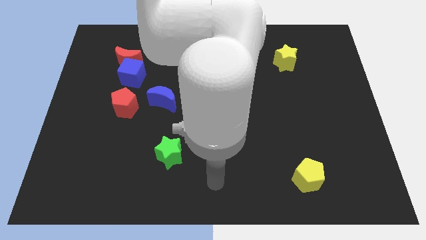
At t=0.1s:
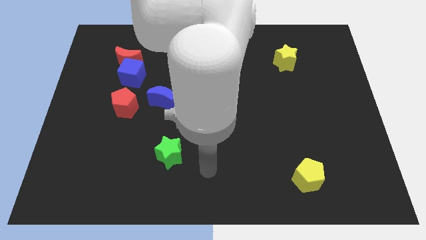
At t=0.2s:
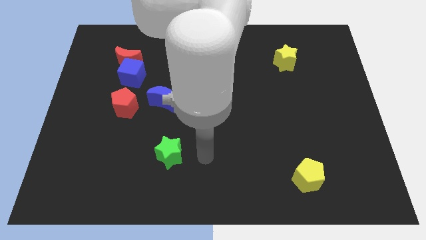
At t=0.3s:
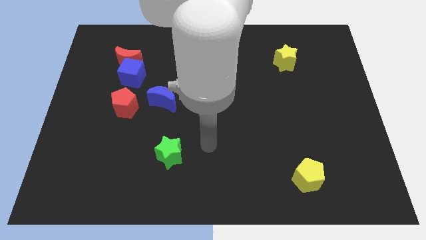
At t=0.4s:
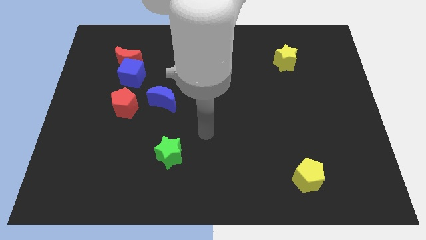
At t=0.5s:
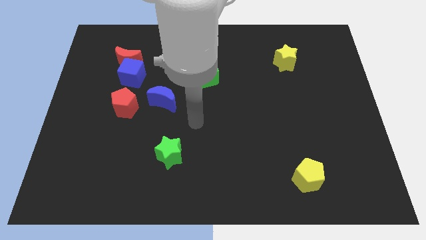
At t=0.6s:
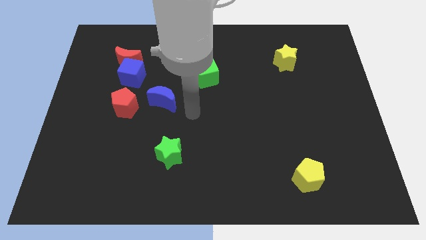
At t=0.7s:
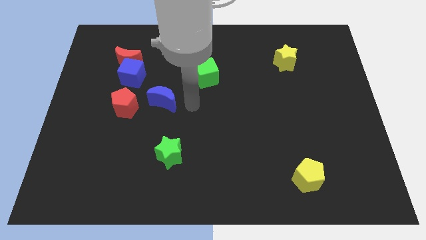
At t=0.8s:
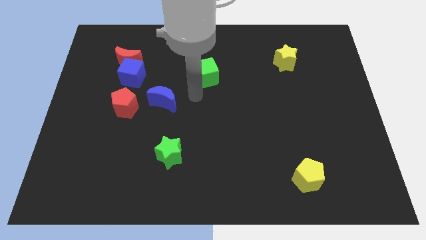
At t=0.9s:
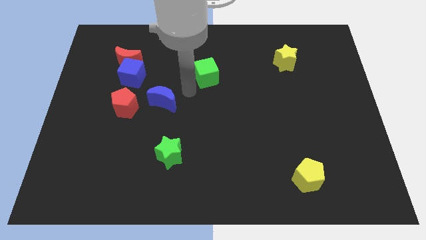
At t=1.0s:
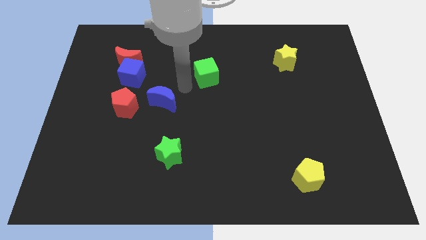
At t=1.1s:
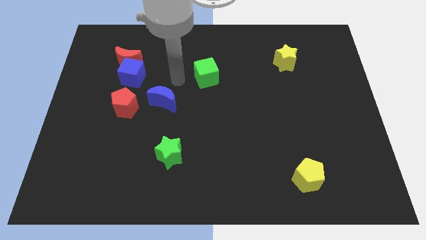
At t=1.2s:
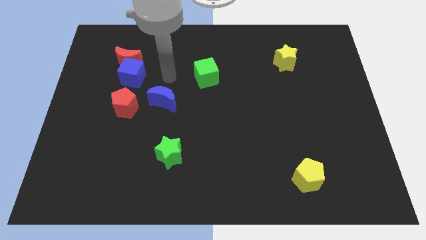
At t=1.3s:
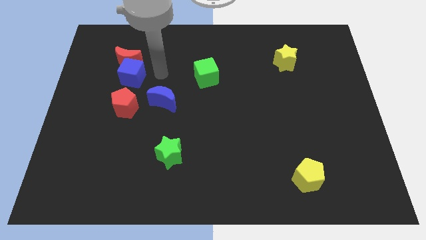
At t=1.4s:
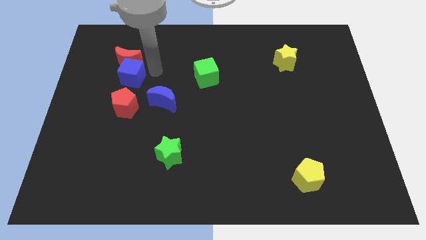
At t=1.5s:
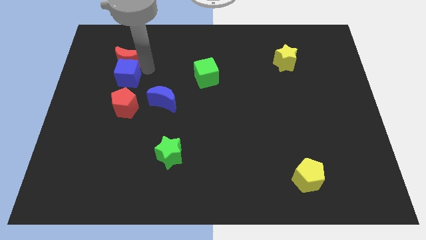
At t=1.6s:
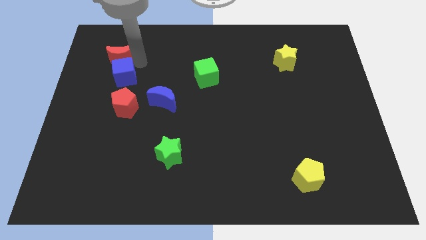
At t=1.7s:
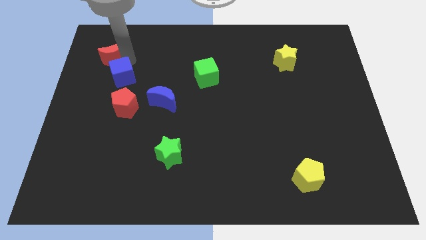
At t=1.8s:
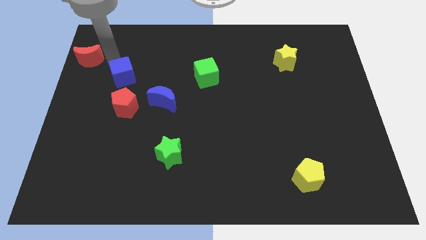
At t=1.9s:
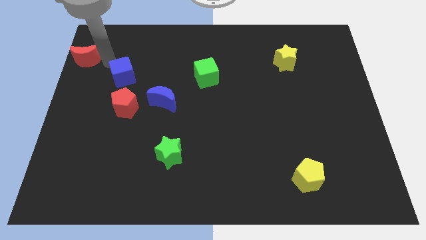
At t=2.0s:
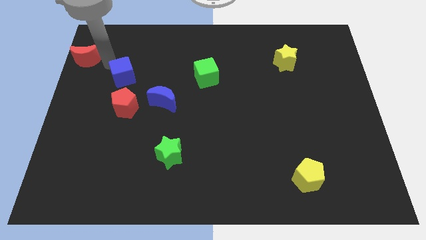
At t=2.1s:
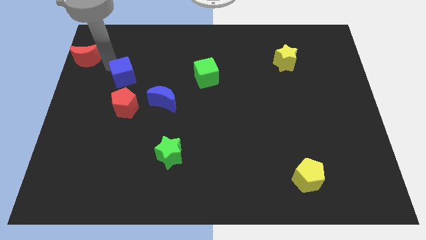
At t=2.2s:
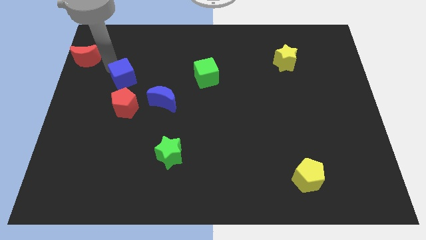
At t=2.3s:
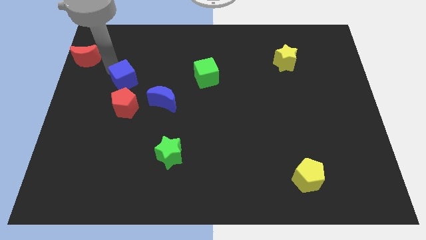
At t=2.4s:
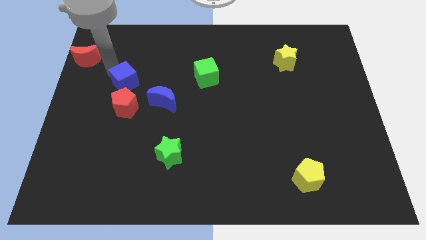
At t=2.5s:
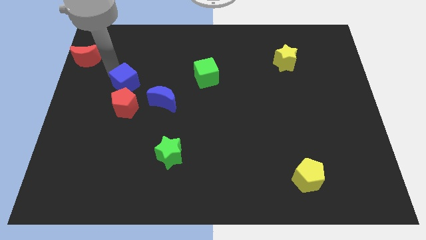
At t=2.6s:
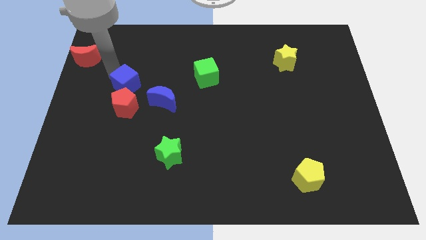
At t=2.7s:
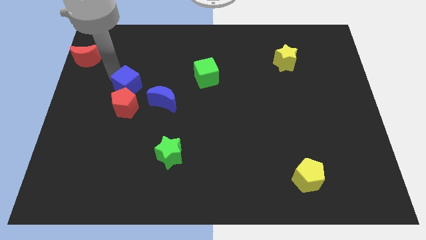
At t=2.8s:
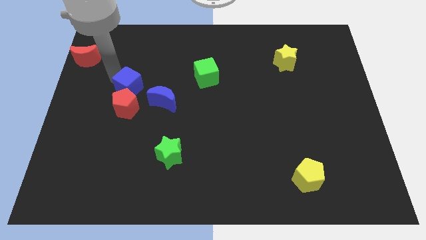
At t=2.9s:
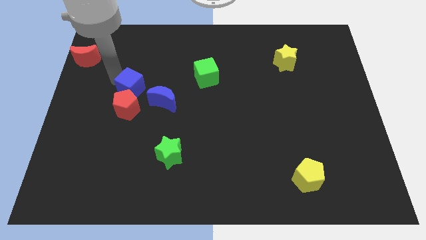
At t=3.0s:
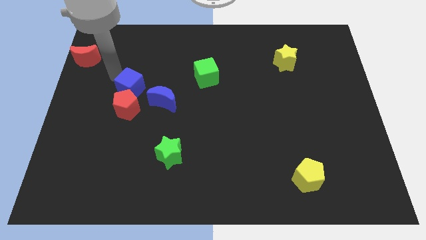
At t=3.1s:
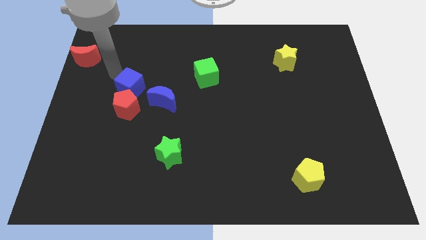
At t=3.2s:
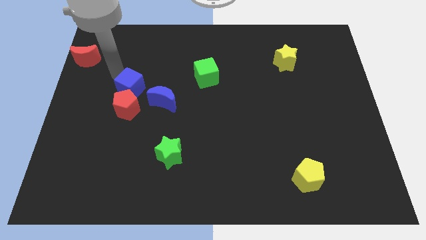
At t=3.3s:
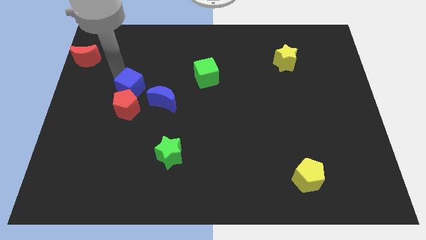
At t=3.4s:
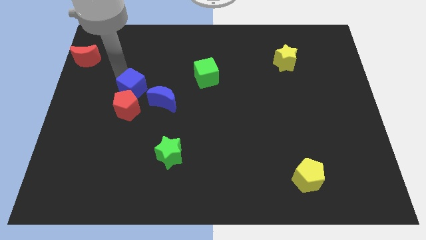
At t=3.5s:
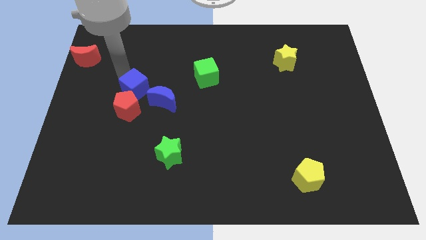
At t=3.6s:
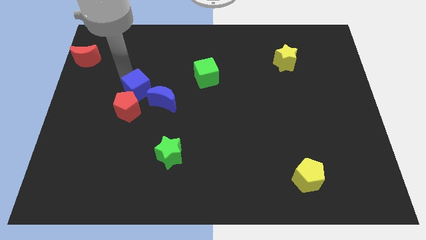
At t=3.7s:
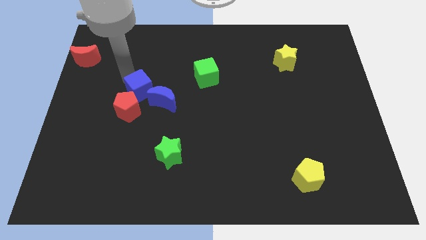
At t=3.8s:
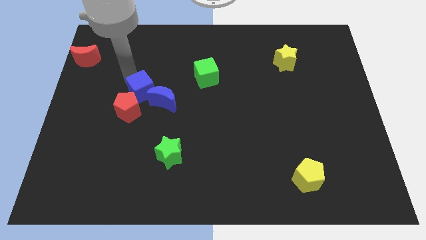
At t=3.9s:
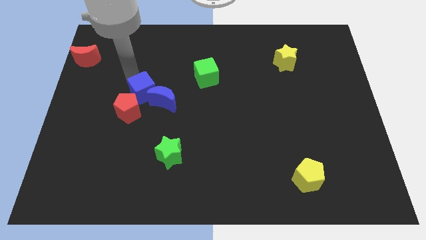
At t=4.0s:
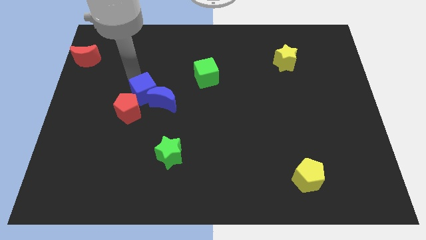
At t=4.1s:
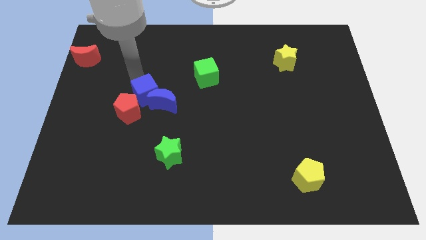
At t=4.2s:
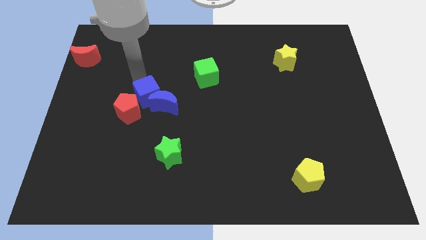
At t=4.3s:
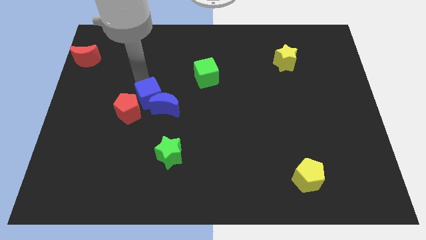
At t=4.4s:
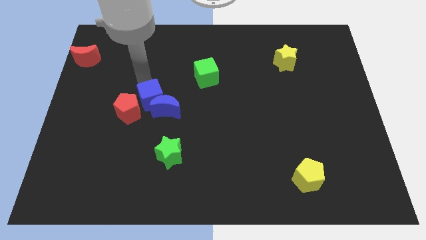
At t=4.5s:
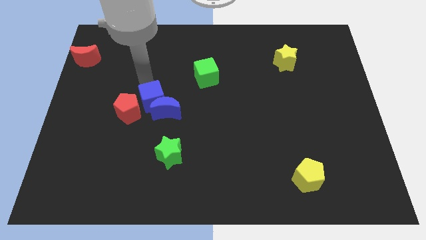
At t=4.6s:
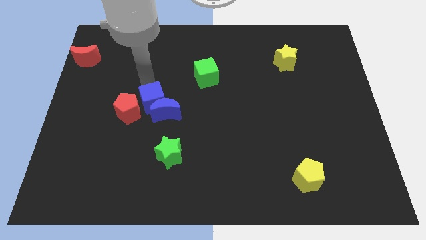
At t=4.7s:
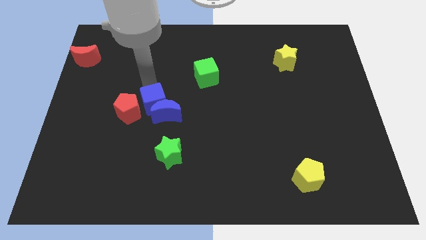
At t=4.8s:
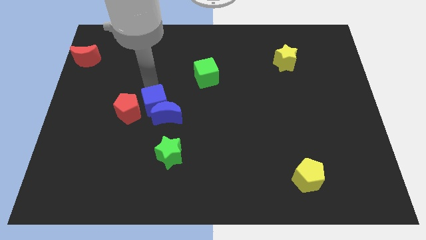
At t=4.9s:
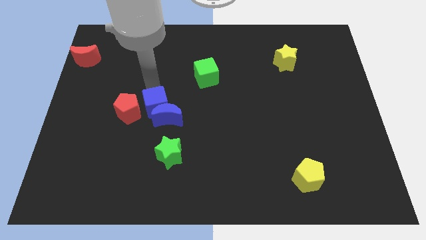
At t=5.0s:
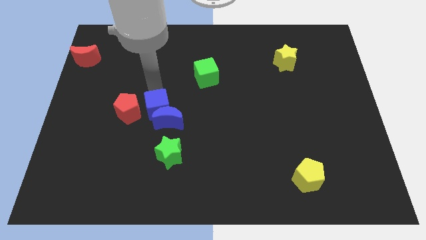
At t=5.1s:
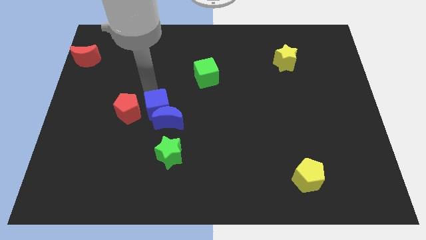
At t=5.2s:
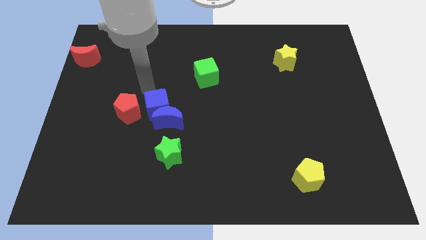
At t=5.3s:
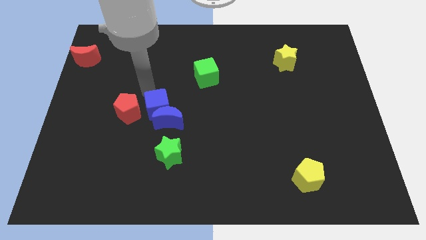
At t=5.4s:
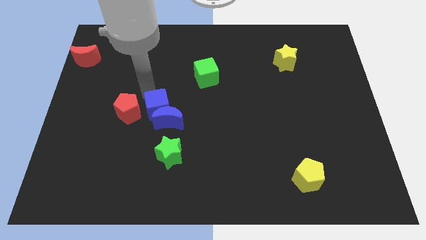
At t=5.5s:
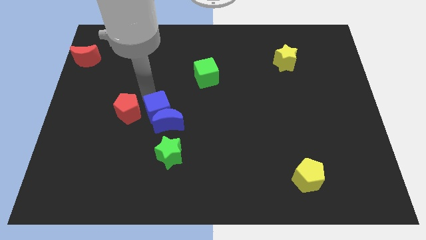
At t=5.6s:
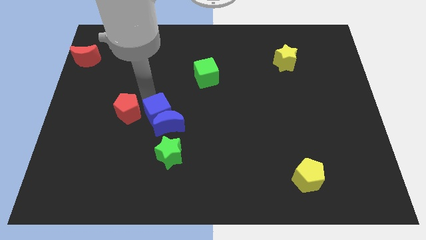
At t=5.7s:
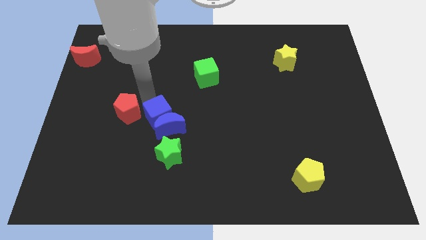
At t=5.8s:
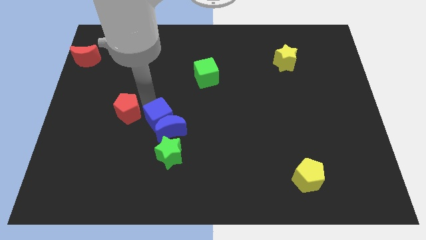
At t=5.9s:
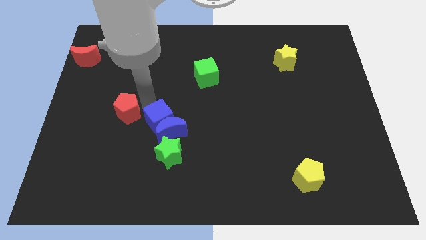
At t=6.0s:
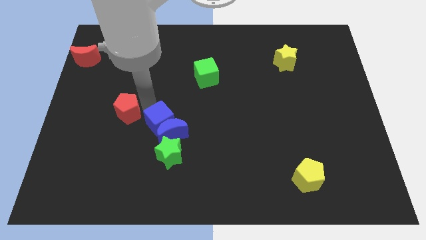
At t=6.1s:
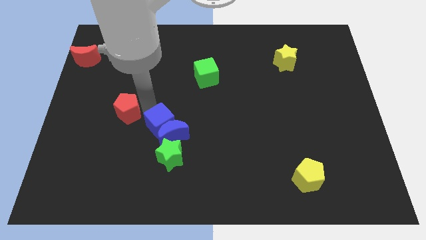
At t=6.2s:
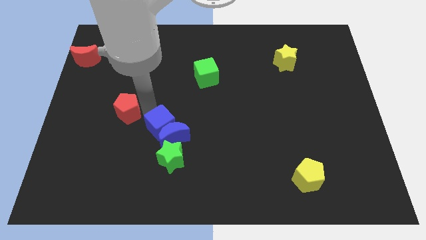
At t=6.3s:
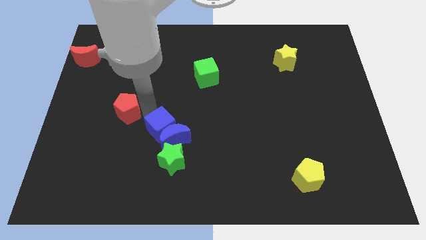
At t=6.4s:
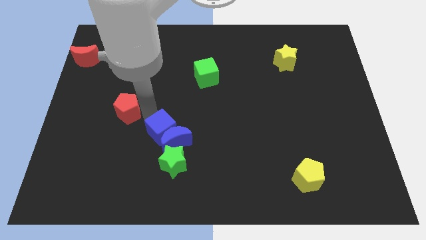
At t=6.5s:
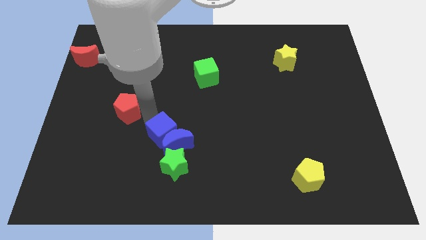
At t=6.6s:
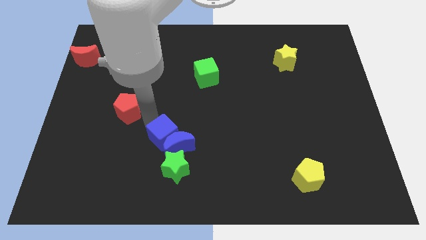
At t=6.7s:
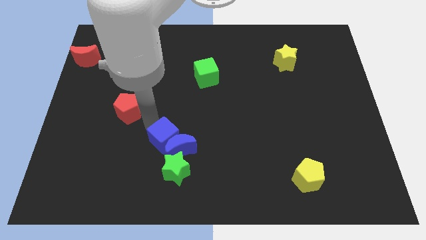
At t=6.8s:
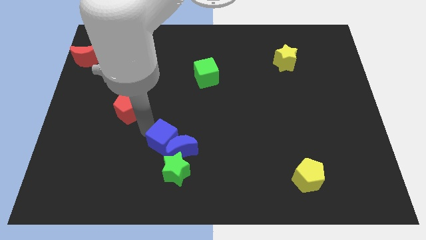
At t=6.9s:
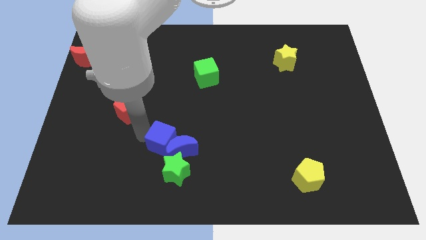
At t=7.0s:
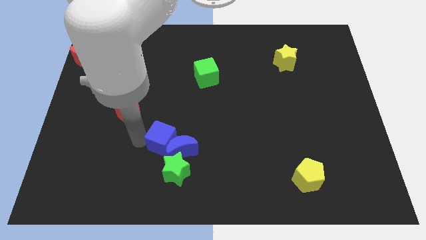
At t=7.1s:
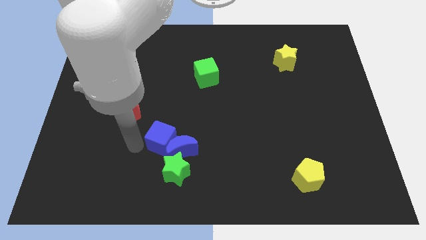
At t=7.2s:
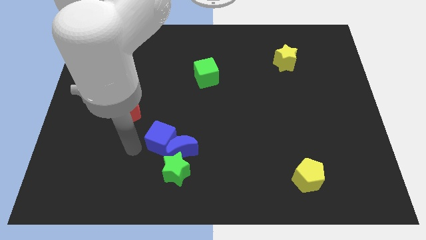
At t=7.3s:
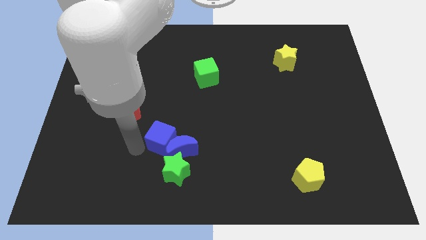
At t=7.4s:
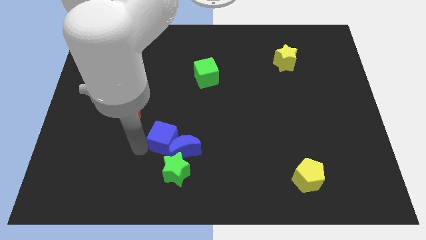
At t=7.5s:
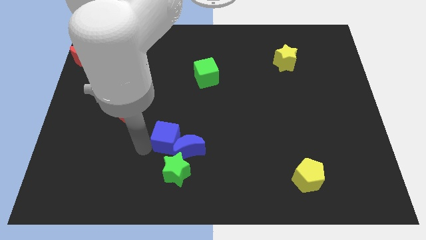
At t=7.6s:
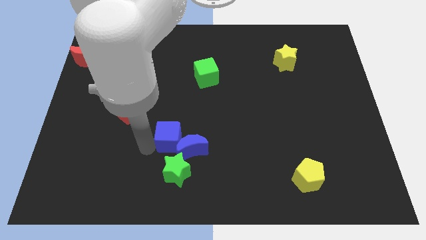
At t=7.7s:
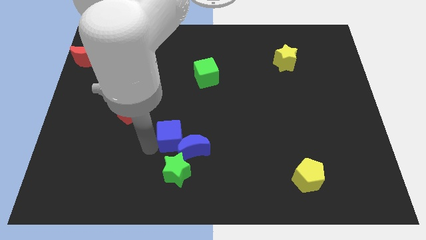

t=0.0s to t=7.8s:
move the blue cube down and then to the right

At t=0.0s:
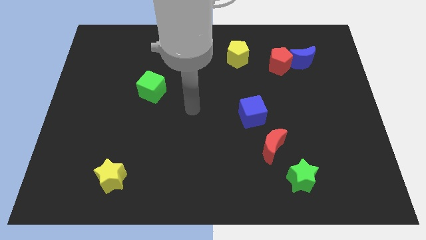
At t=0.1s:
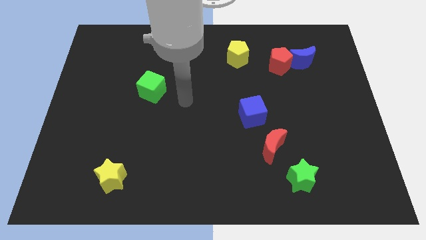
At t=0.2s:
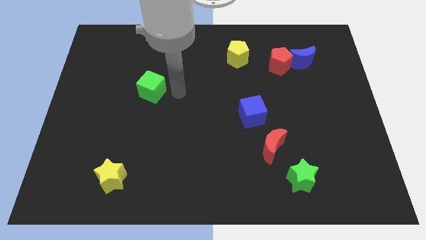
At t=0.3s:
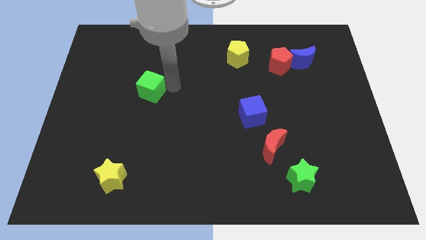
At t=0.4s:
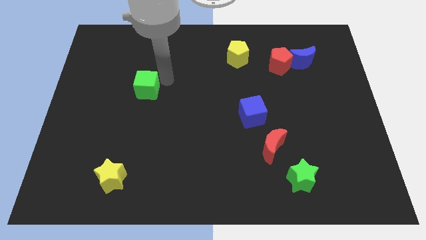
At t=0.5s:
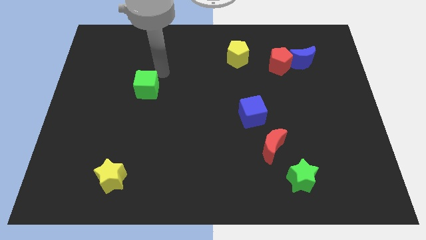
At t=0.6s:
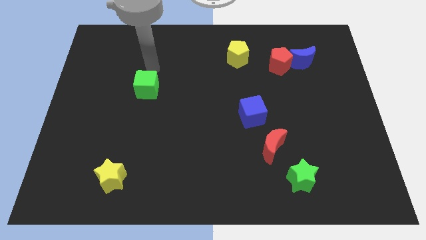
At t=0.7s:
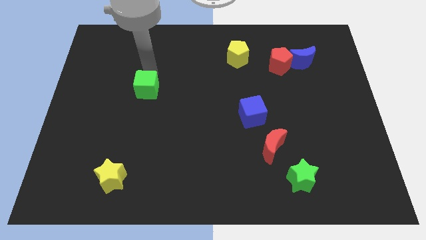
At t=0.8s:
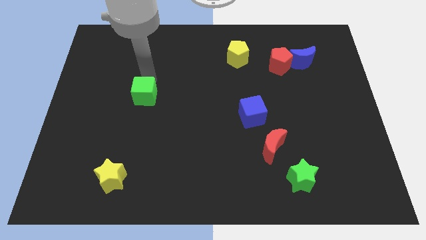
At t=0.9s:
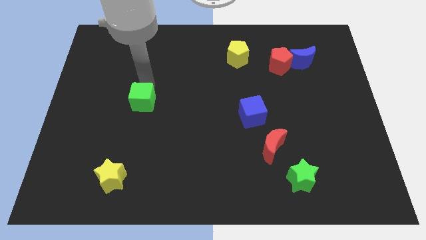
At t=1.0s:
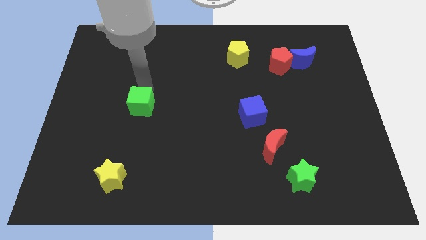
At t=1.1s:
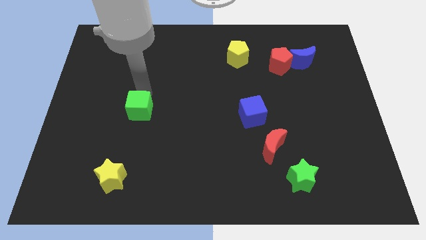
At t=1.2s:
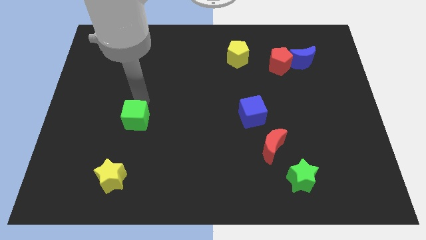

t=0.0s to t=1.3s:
slide the green cube downwards a little
